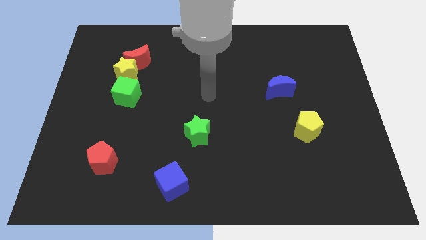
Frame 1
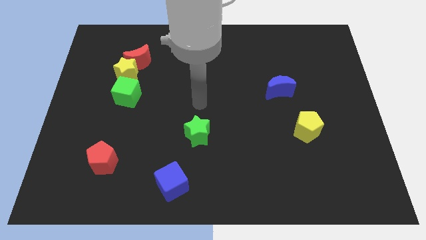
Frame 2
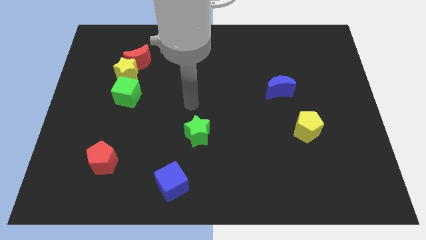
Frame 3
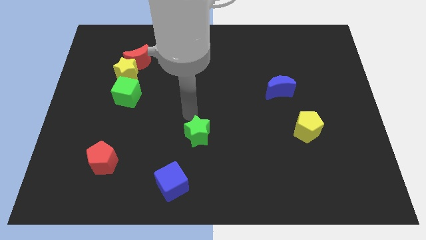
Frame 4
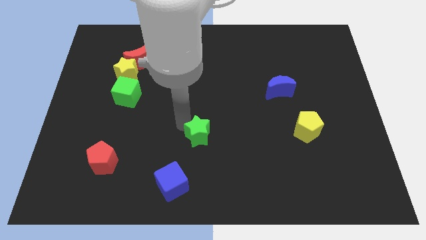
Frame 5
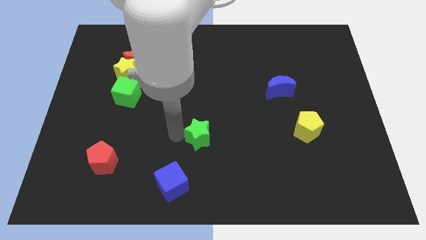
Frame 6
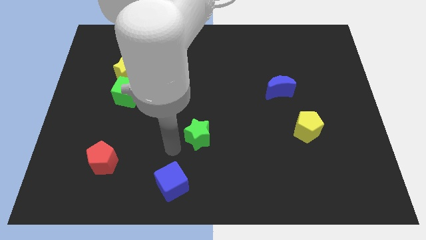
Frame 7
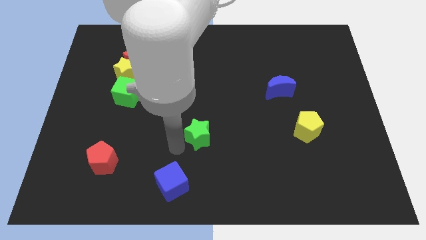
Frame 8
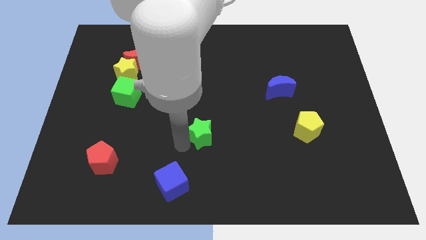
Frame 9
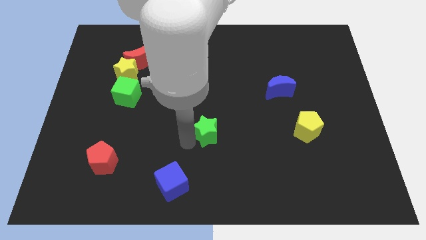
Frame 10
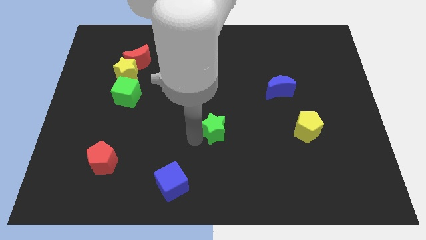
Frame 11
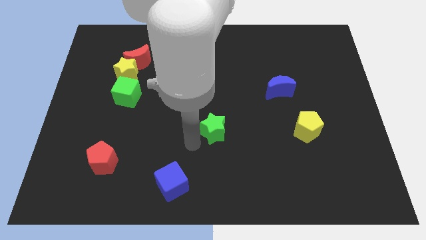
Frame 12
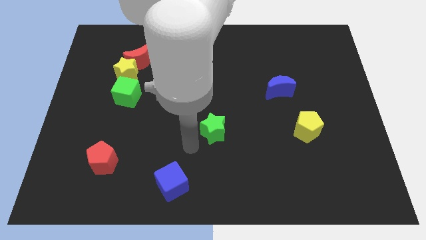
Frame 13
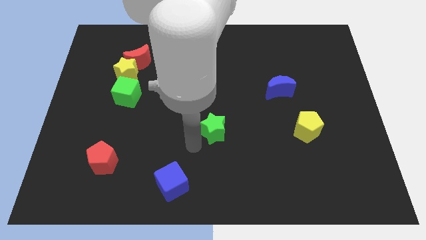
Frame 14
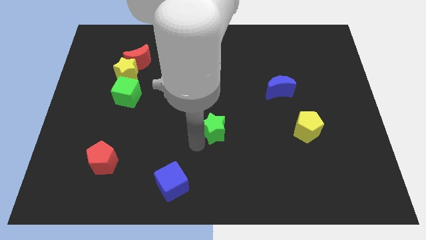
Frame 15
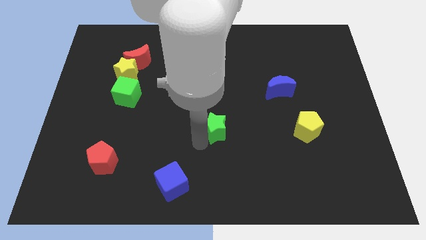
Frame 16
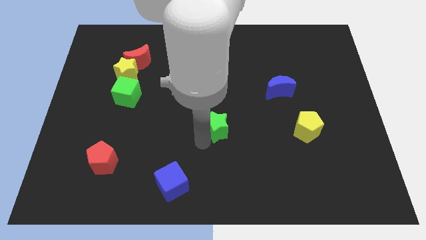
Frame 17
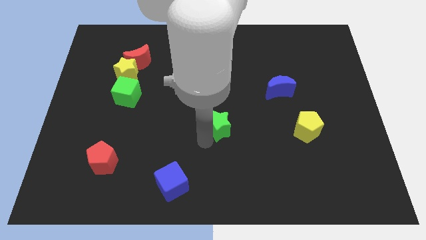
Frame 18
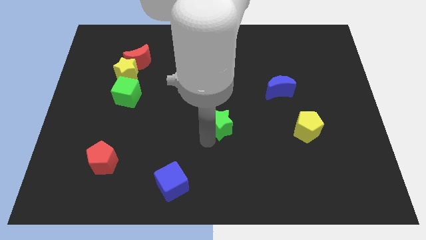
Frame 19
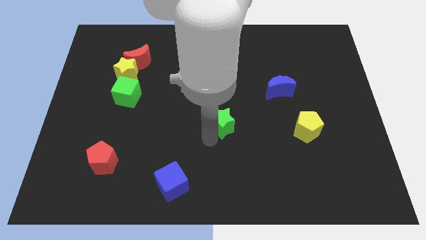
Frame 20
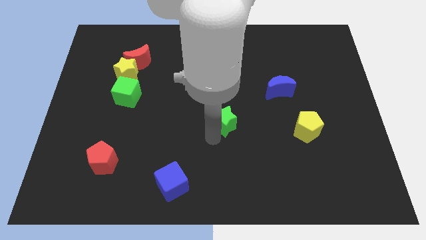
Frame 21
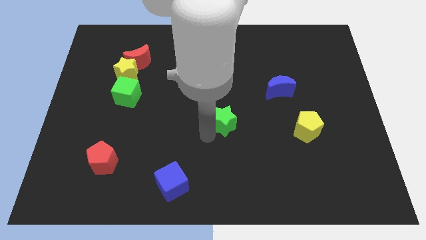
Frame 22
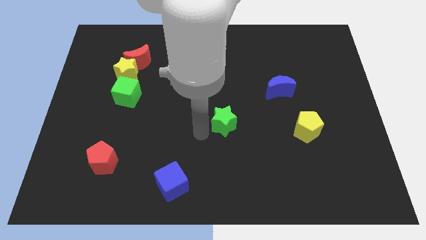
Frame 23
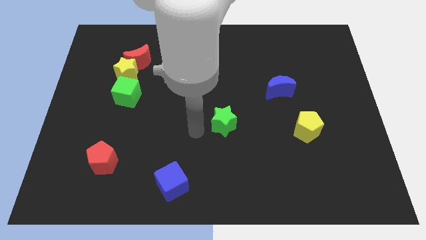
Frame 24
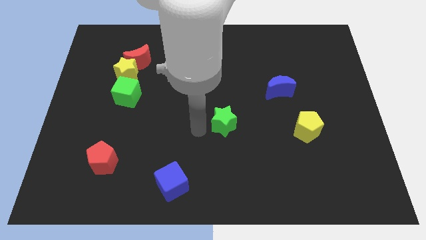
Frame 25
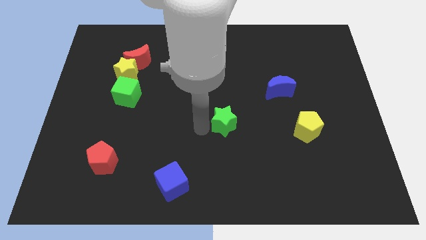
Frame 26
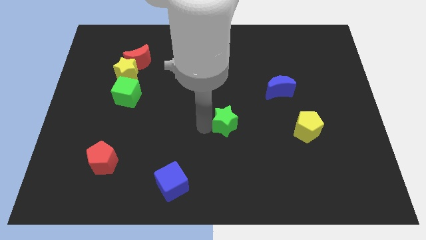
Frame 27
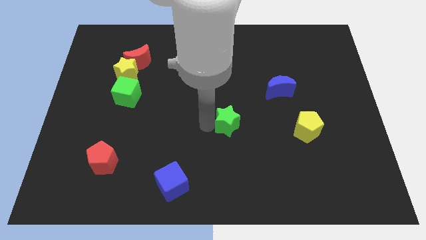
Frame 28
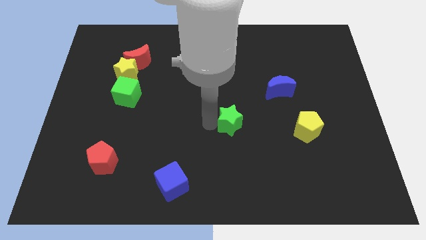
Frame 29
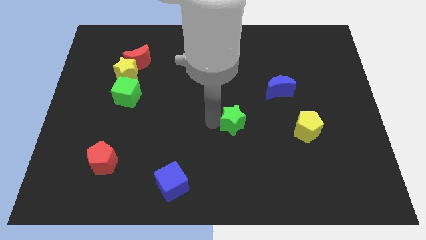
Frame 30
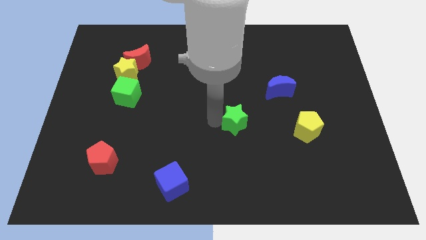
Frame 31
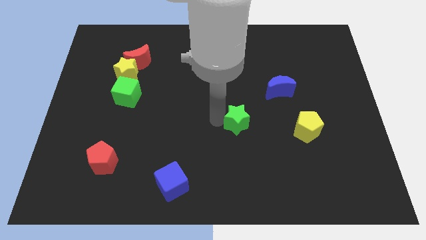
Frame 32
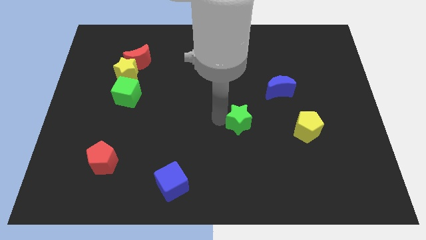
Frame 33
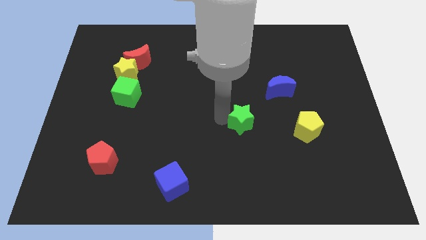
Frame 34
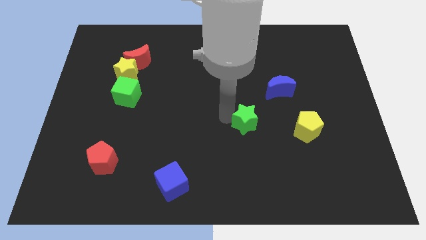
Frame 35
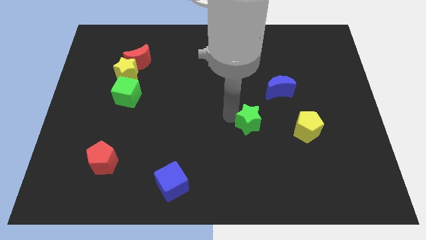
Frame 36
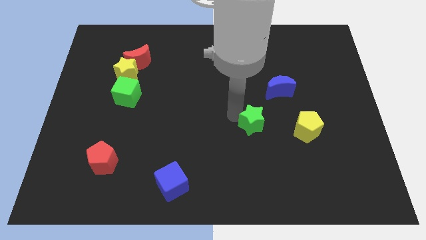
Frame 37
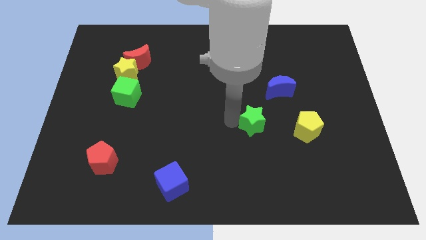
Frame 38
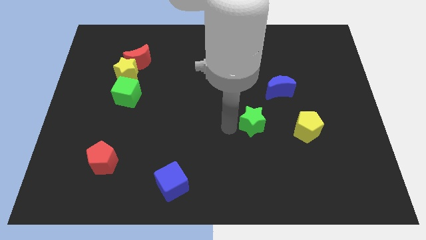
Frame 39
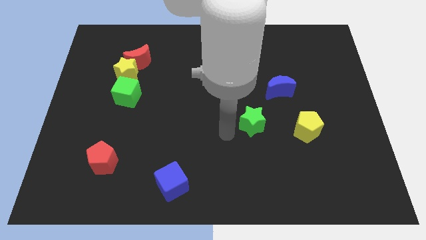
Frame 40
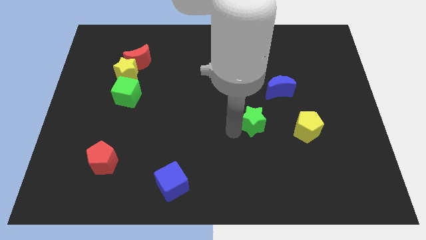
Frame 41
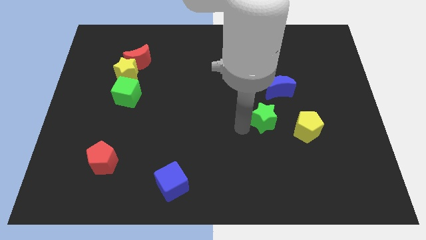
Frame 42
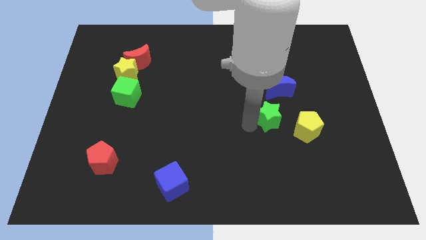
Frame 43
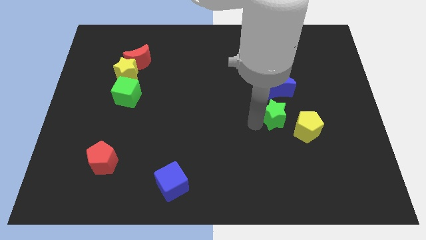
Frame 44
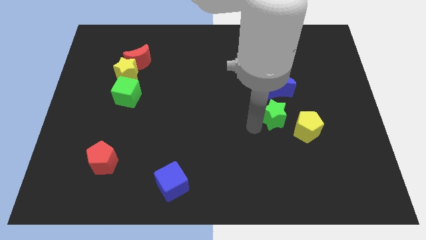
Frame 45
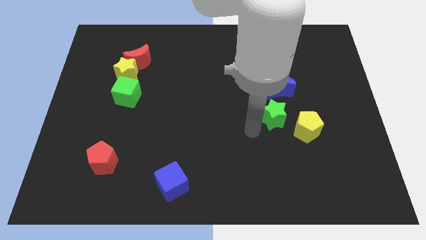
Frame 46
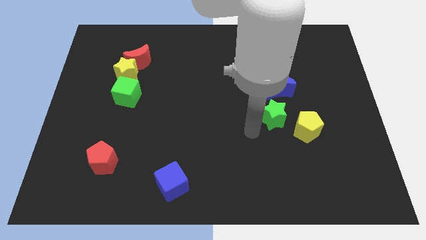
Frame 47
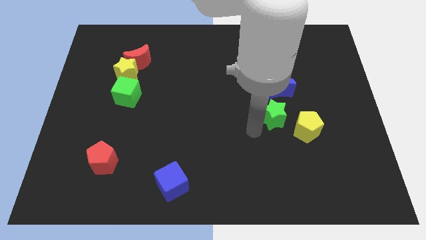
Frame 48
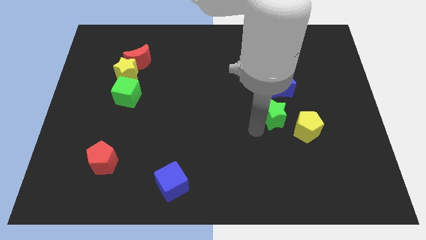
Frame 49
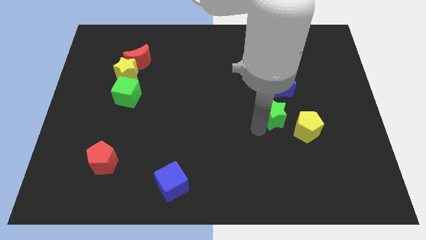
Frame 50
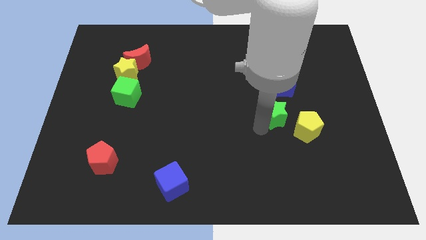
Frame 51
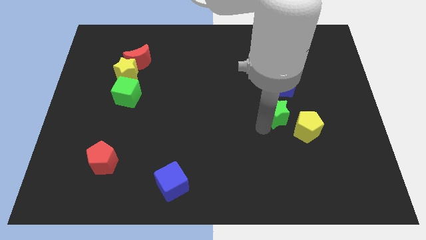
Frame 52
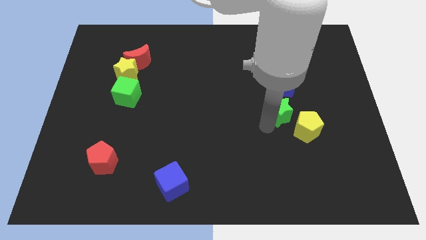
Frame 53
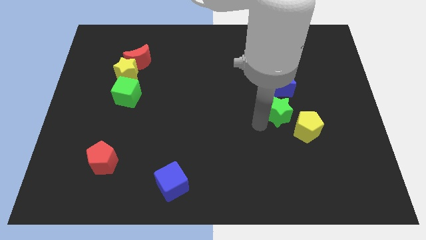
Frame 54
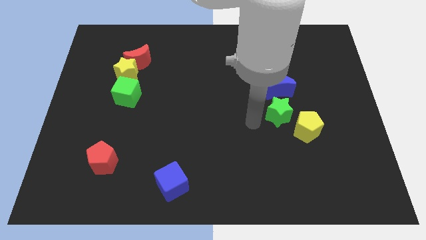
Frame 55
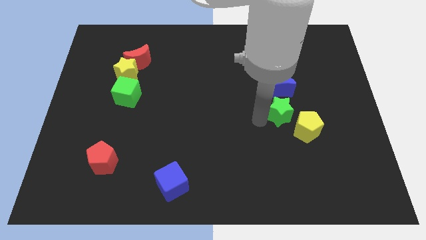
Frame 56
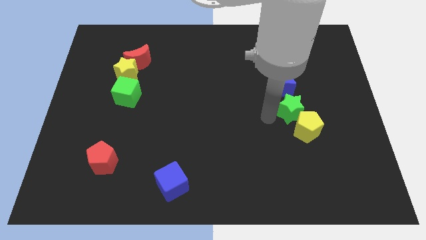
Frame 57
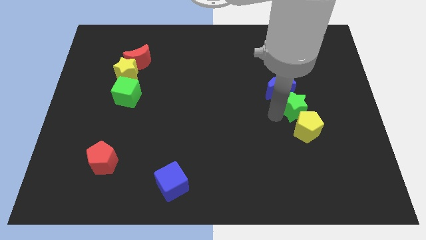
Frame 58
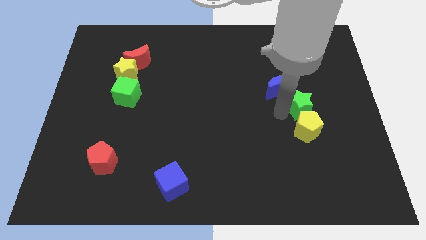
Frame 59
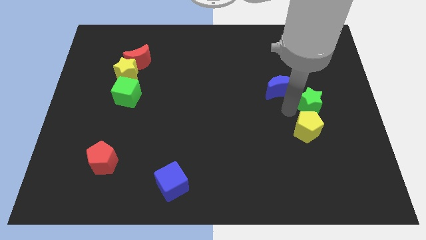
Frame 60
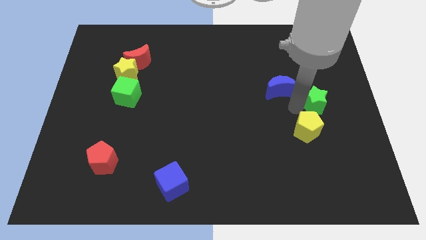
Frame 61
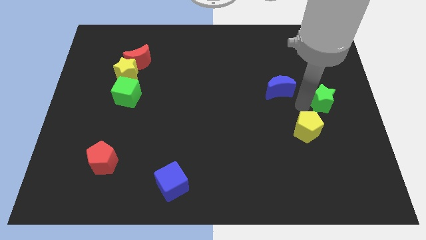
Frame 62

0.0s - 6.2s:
slide the green star to the center right
